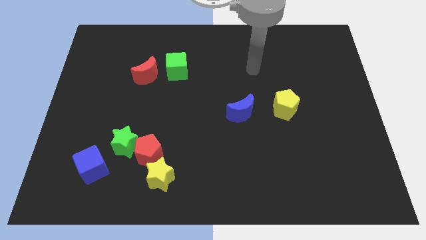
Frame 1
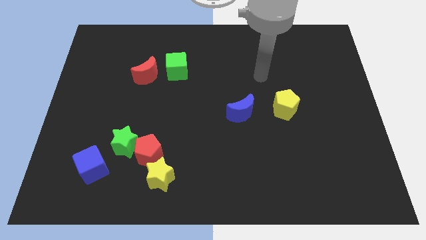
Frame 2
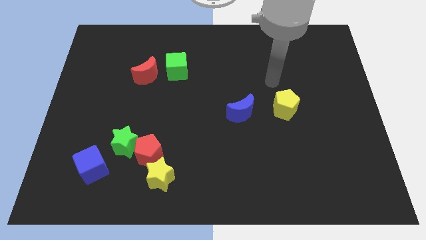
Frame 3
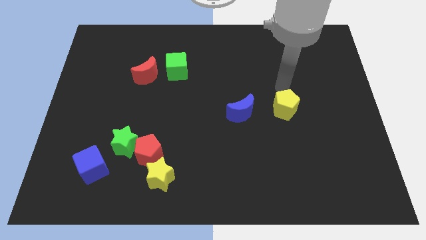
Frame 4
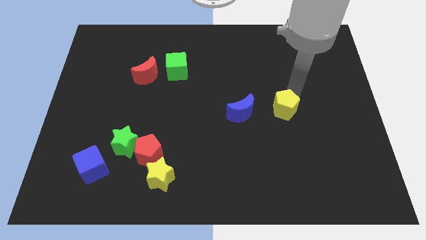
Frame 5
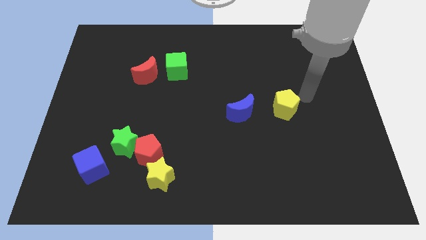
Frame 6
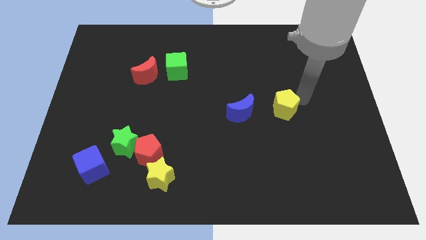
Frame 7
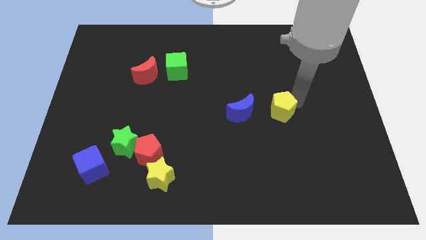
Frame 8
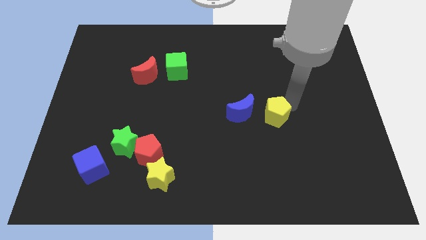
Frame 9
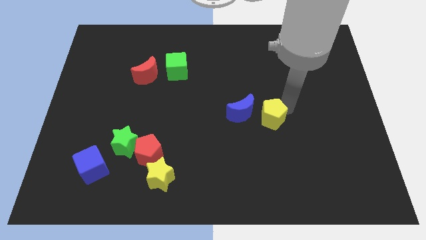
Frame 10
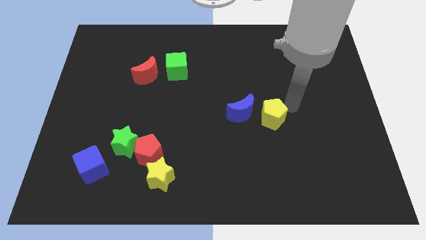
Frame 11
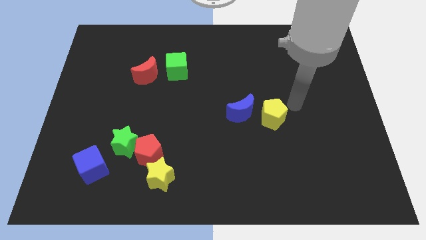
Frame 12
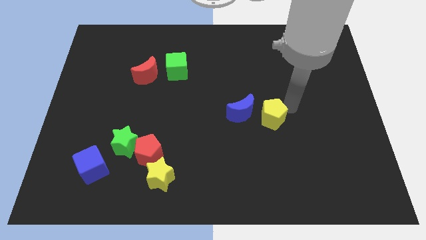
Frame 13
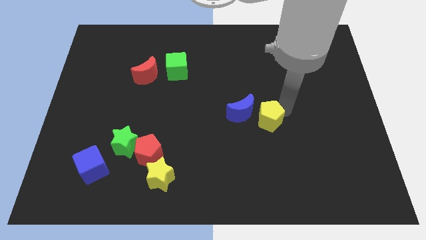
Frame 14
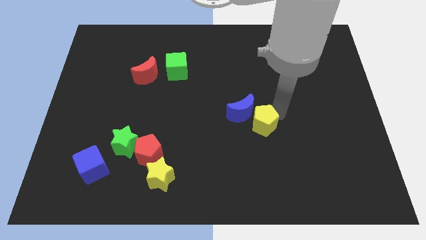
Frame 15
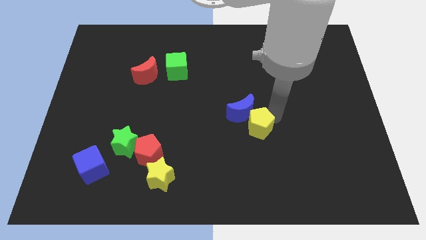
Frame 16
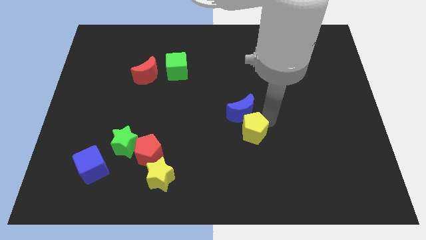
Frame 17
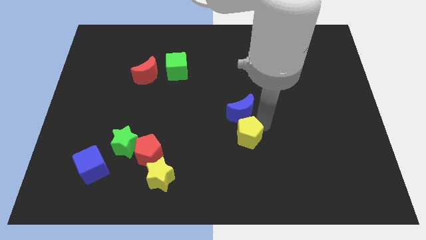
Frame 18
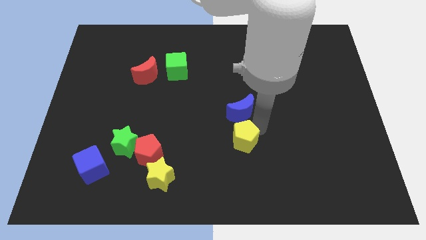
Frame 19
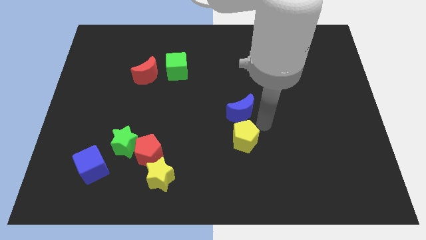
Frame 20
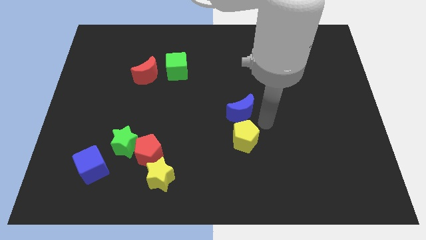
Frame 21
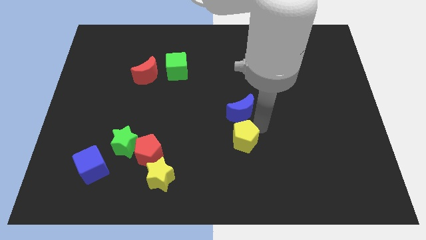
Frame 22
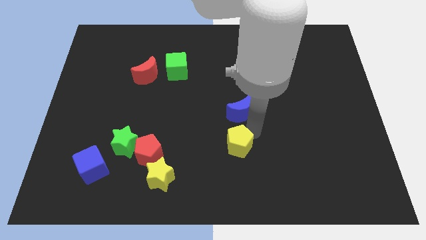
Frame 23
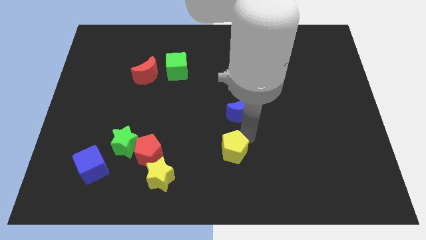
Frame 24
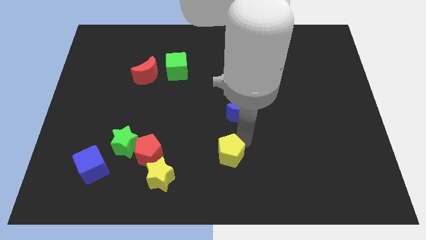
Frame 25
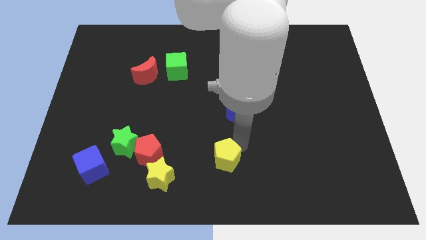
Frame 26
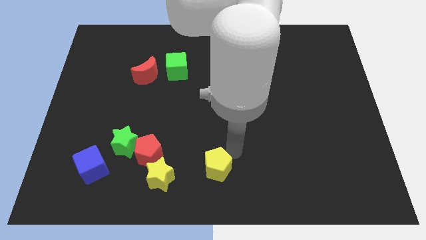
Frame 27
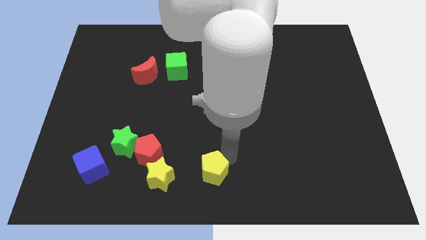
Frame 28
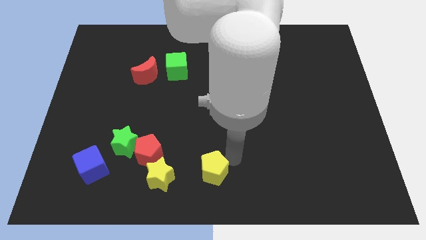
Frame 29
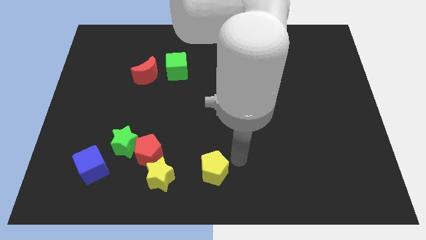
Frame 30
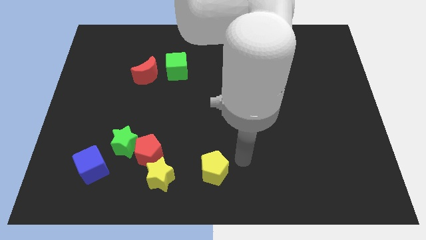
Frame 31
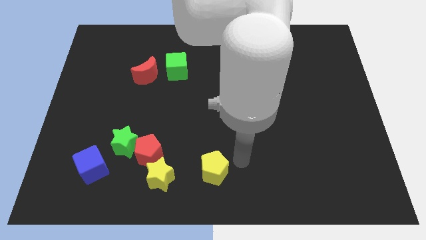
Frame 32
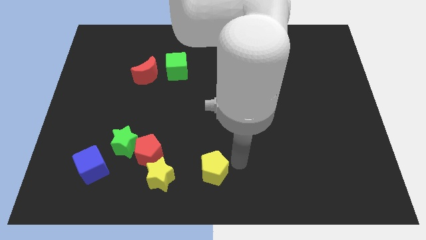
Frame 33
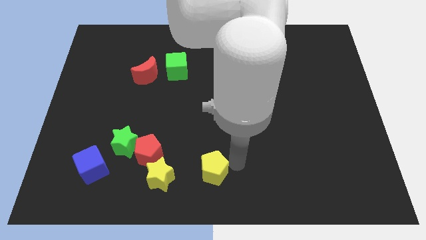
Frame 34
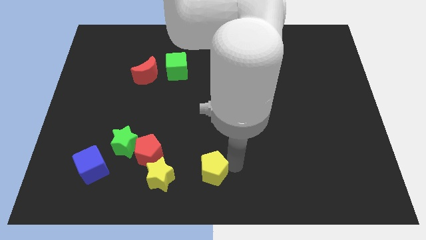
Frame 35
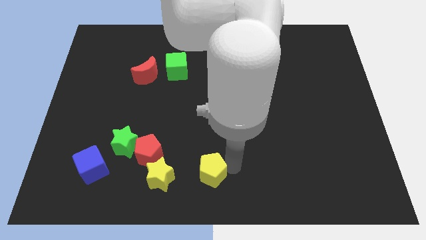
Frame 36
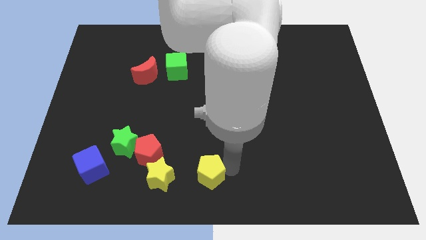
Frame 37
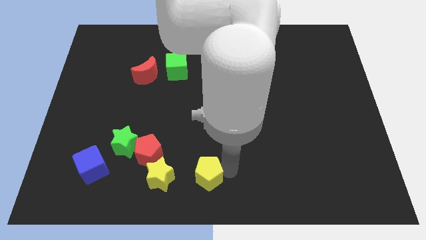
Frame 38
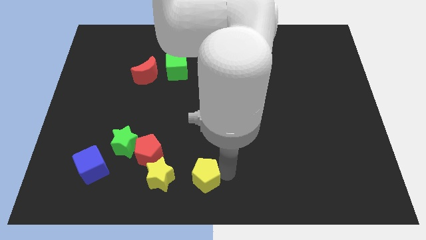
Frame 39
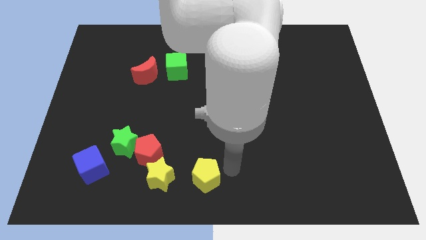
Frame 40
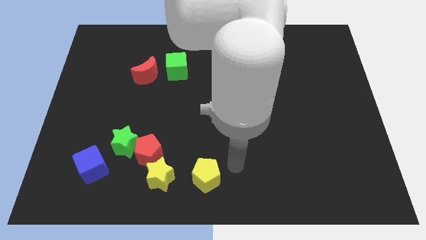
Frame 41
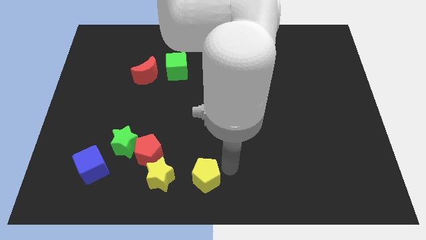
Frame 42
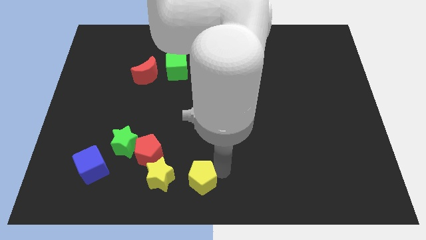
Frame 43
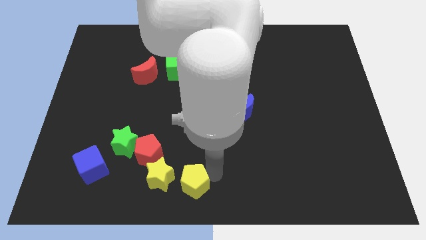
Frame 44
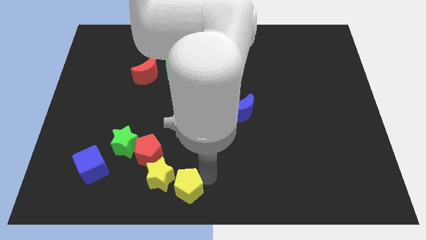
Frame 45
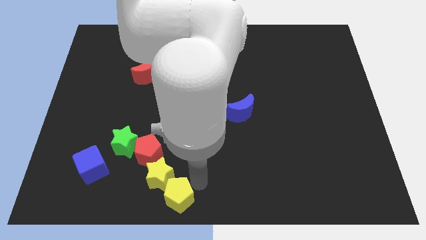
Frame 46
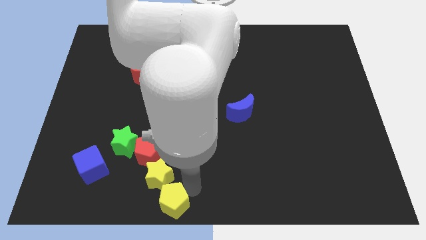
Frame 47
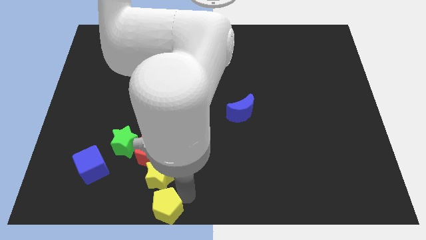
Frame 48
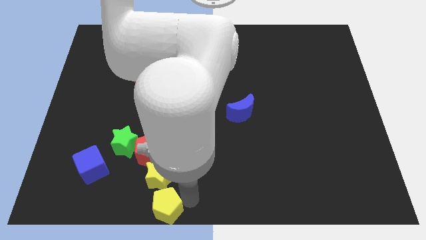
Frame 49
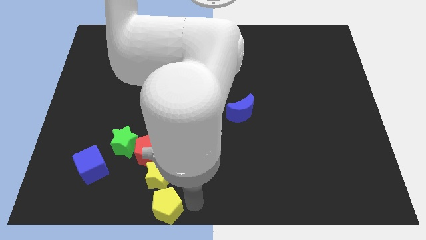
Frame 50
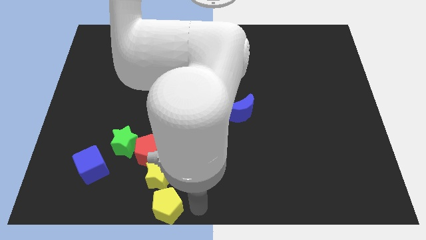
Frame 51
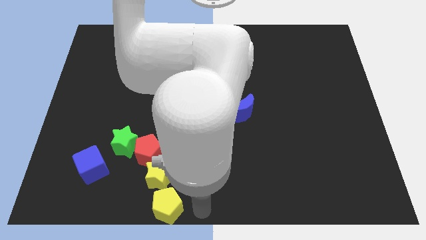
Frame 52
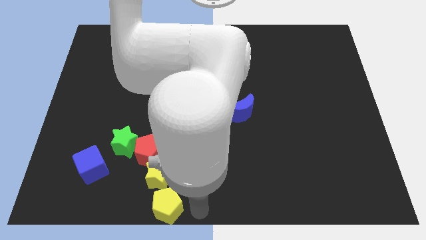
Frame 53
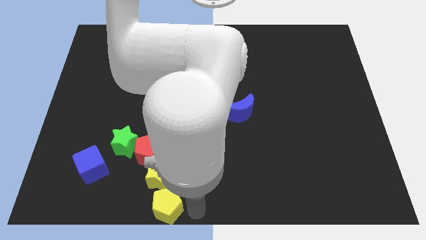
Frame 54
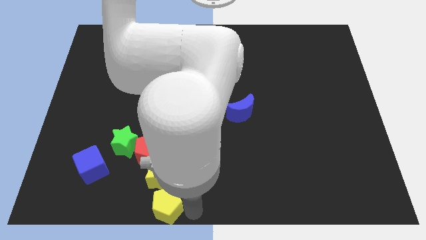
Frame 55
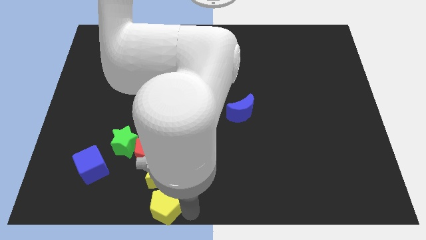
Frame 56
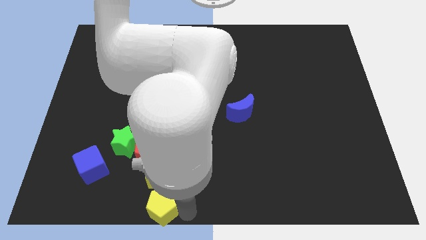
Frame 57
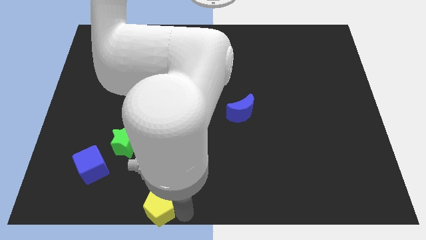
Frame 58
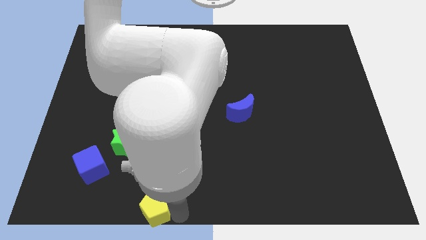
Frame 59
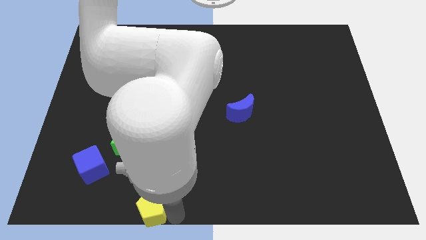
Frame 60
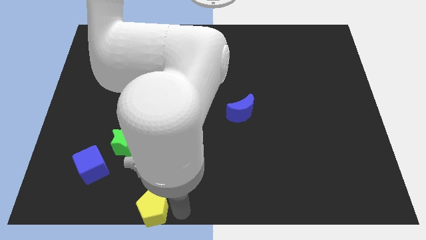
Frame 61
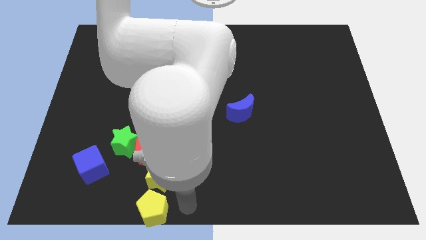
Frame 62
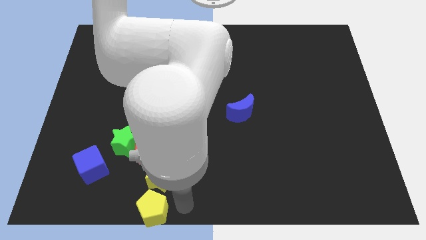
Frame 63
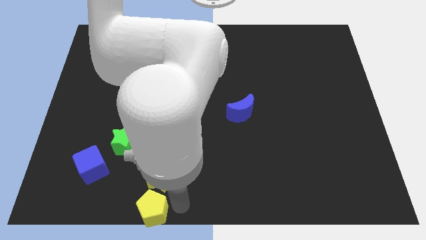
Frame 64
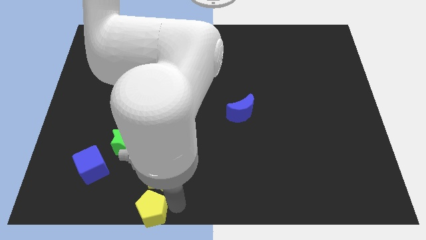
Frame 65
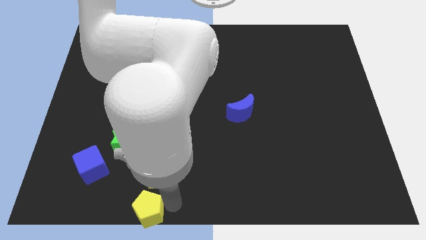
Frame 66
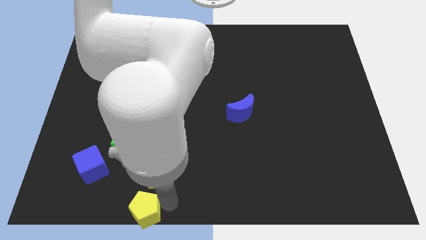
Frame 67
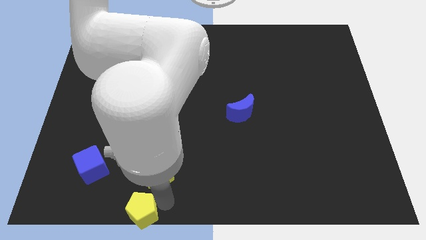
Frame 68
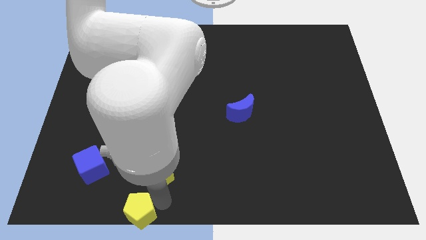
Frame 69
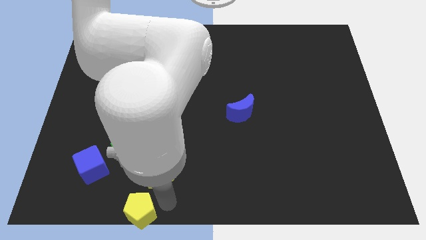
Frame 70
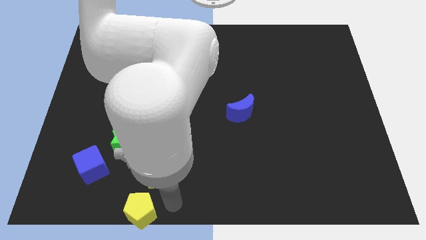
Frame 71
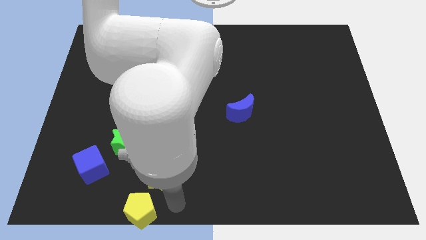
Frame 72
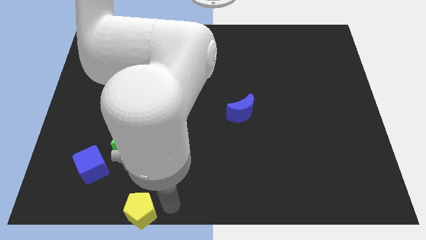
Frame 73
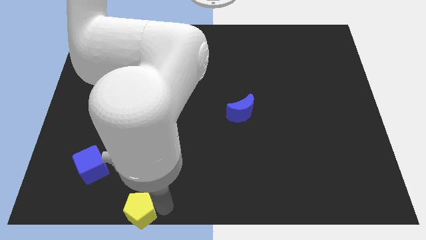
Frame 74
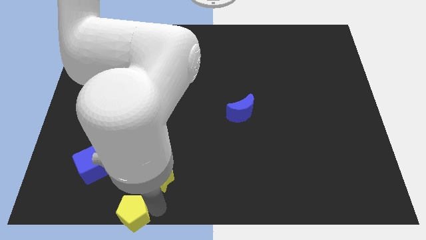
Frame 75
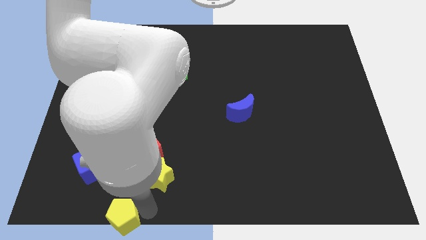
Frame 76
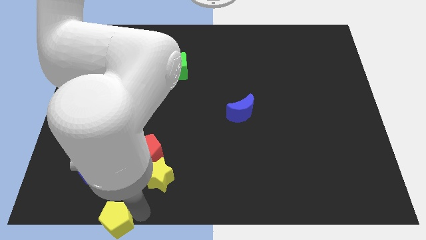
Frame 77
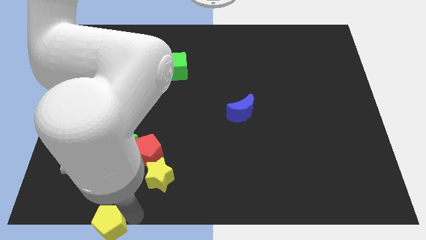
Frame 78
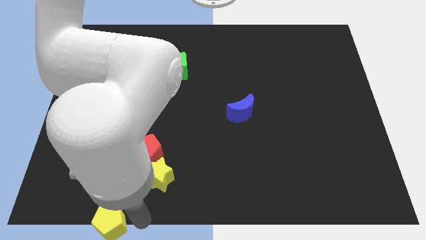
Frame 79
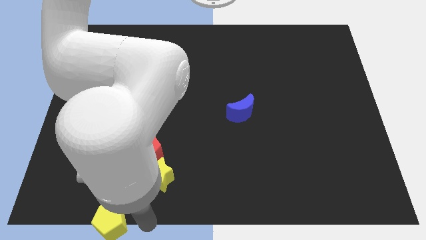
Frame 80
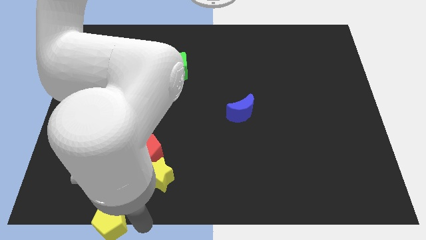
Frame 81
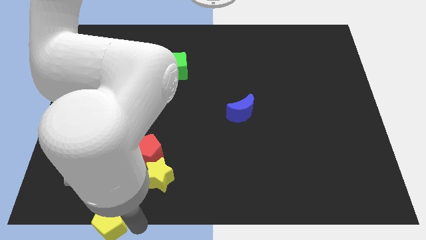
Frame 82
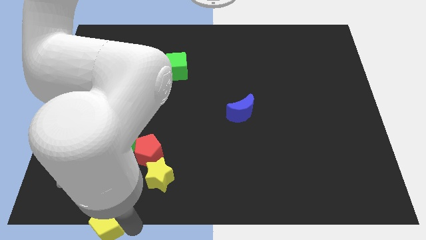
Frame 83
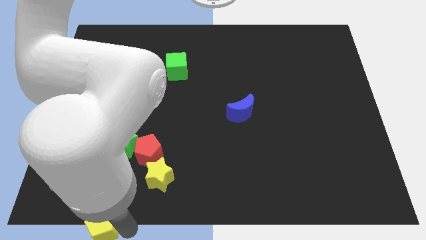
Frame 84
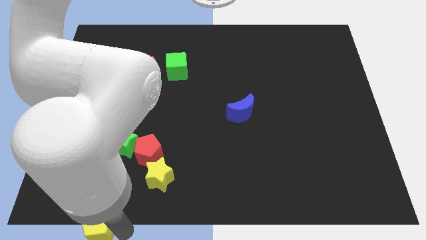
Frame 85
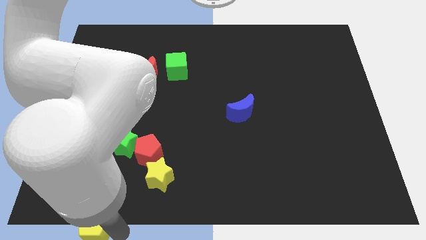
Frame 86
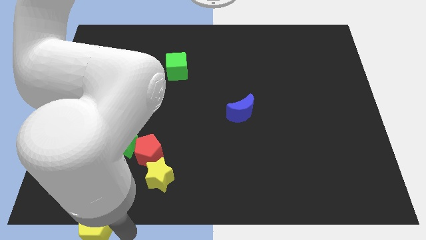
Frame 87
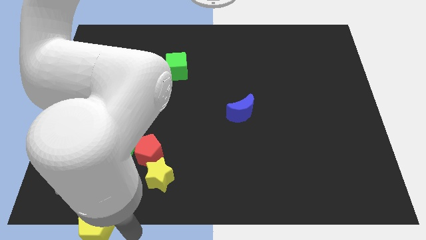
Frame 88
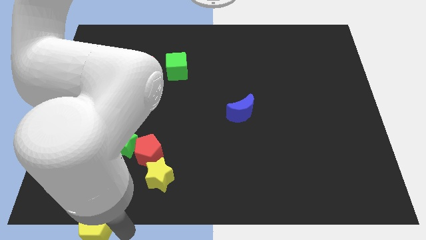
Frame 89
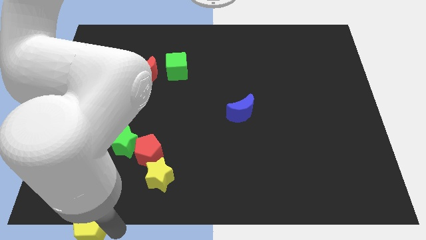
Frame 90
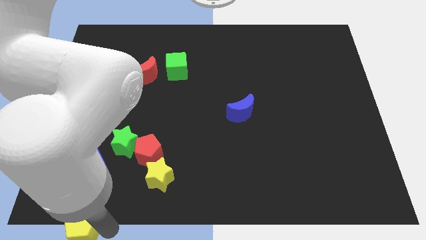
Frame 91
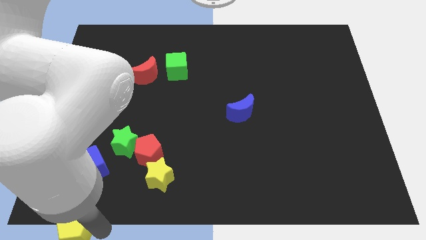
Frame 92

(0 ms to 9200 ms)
slide the yellow pentagon to the lower left corner
